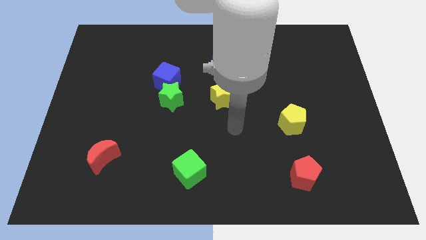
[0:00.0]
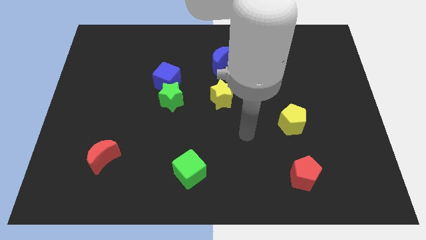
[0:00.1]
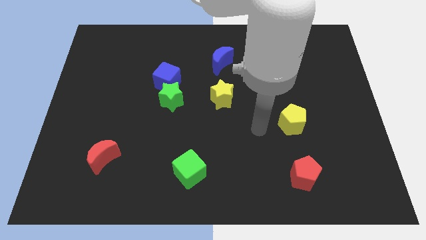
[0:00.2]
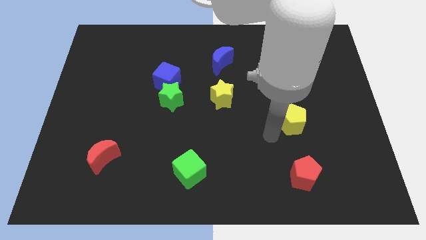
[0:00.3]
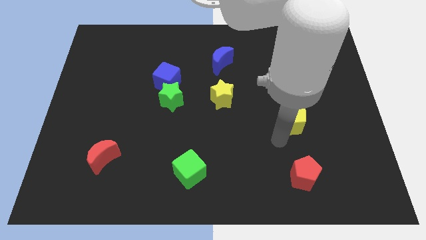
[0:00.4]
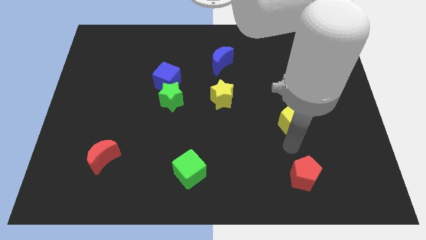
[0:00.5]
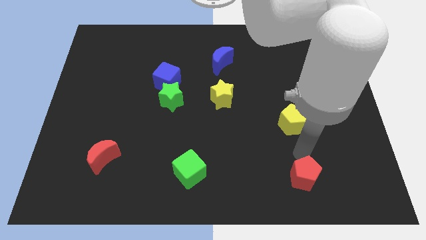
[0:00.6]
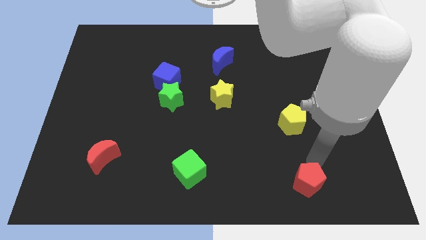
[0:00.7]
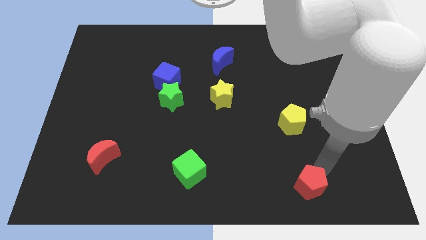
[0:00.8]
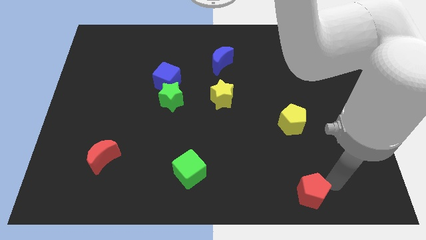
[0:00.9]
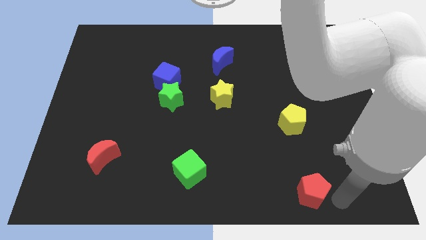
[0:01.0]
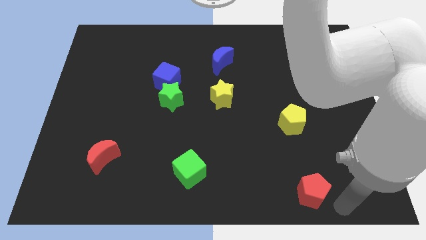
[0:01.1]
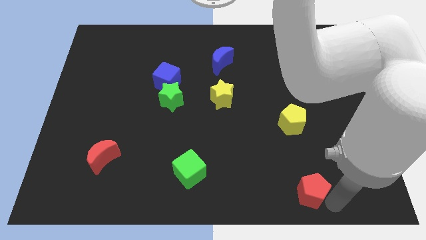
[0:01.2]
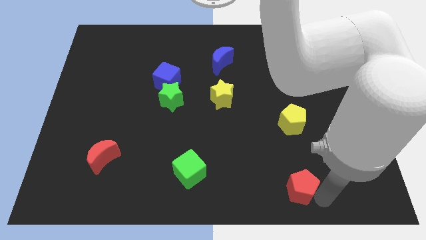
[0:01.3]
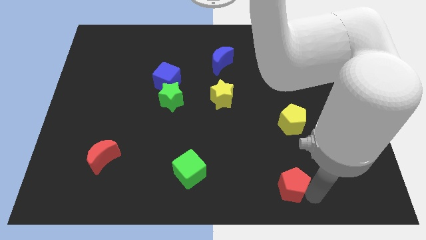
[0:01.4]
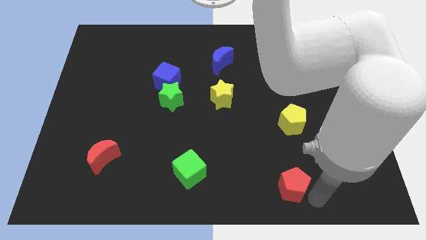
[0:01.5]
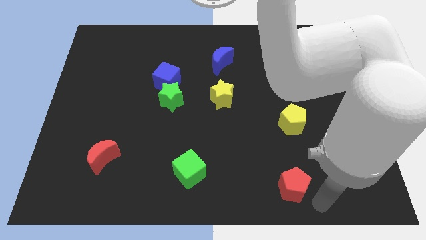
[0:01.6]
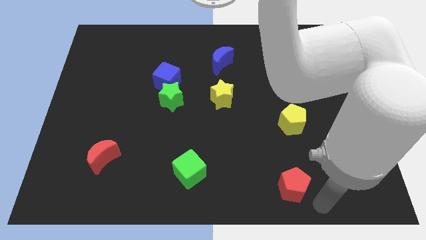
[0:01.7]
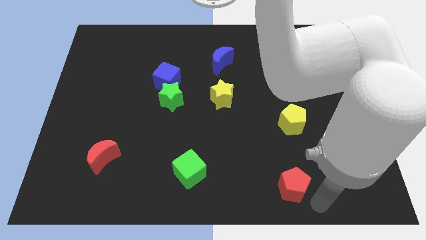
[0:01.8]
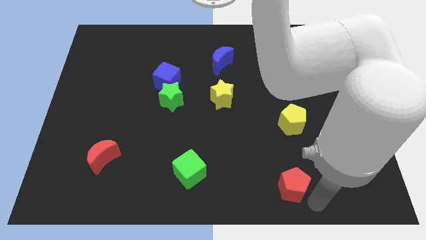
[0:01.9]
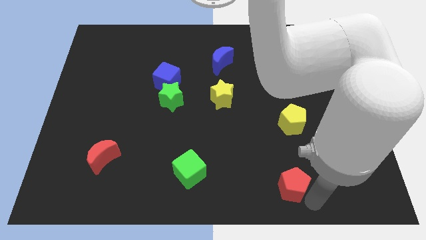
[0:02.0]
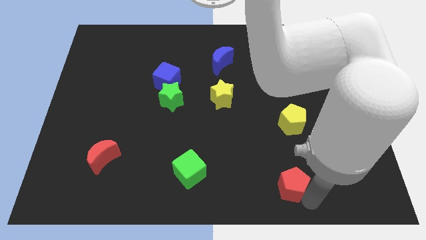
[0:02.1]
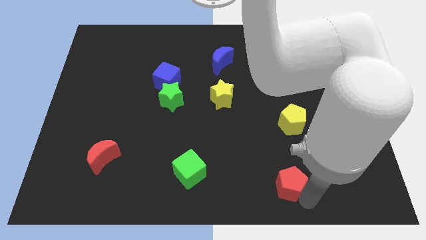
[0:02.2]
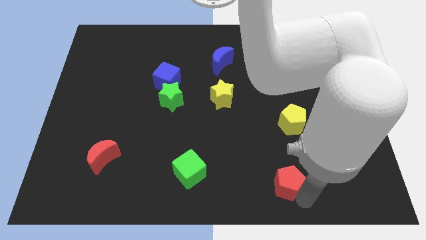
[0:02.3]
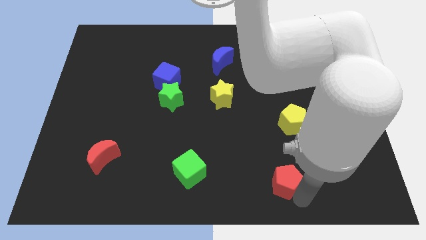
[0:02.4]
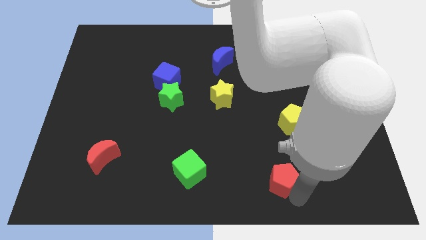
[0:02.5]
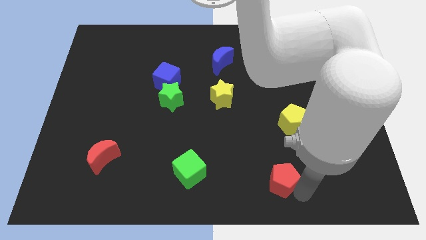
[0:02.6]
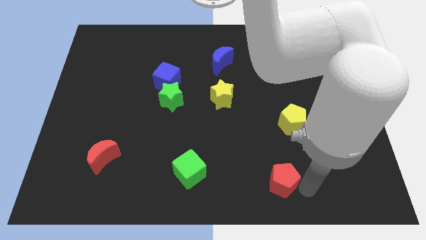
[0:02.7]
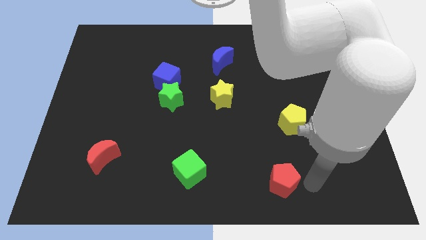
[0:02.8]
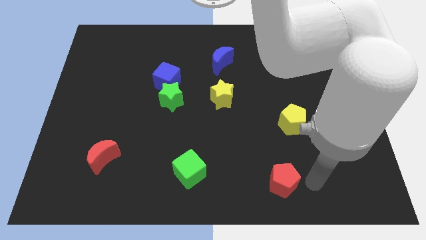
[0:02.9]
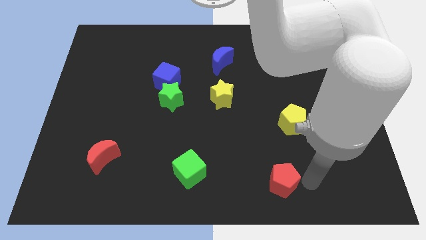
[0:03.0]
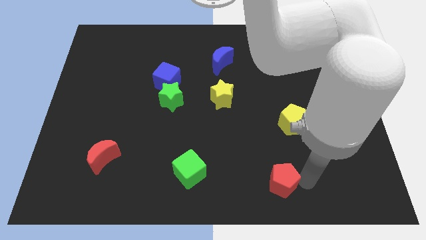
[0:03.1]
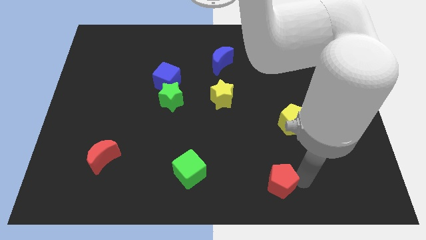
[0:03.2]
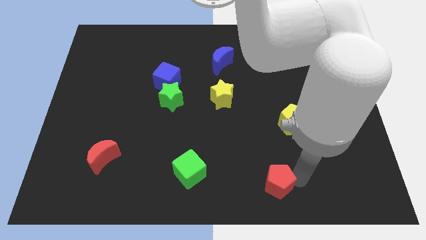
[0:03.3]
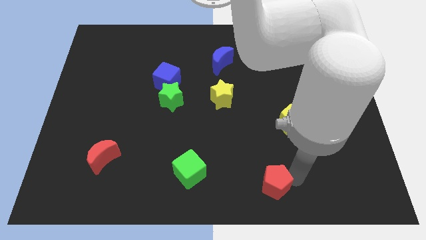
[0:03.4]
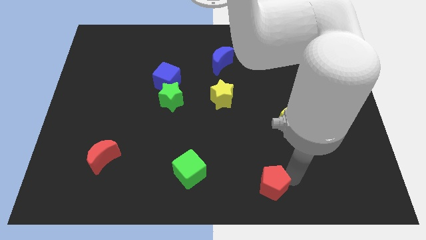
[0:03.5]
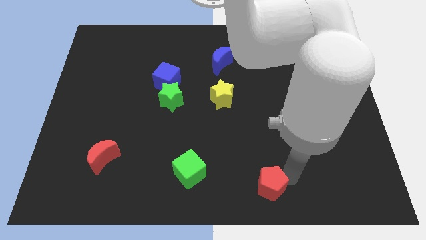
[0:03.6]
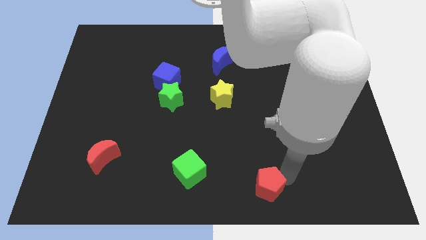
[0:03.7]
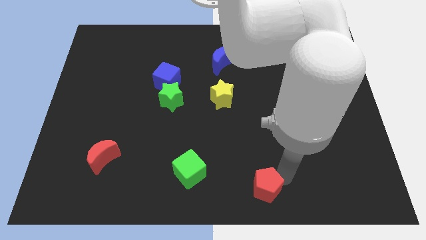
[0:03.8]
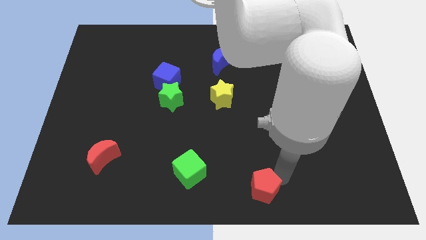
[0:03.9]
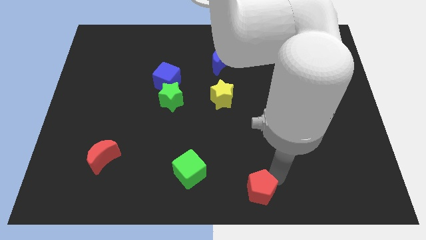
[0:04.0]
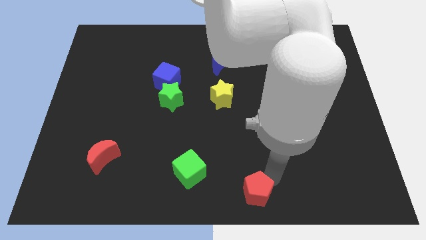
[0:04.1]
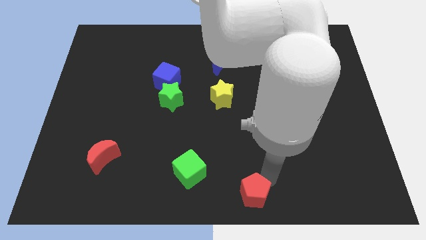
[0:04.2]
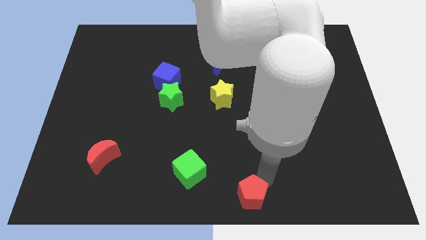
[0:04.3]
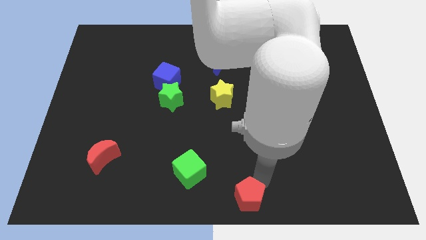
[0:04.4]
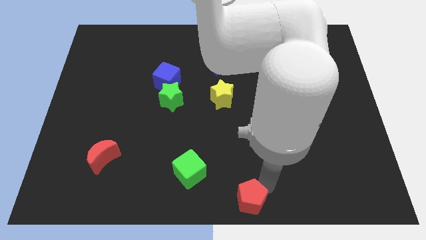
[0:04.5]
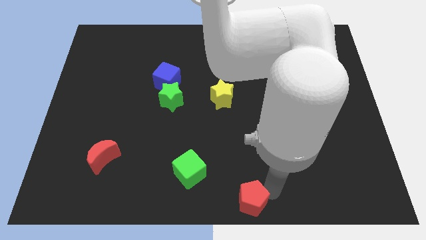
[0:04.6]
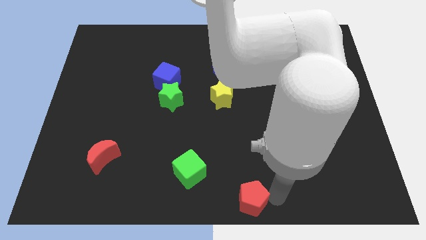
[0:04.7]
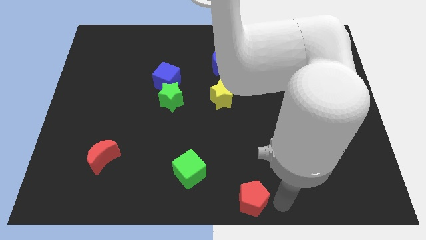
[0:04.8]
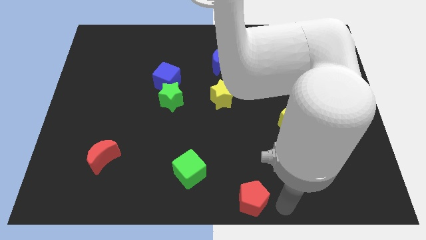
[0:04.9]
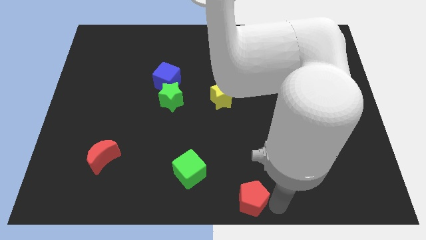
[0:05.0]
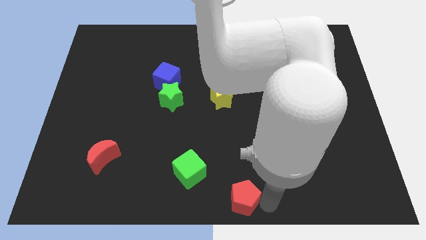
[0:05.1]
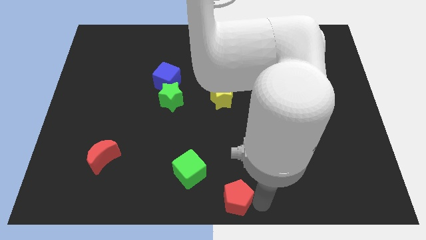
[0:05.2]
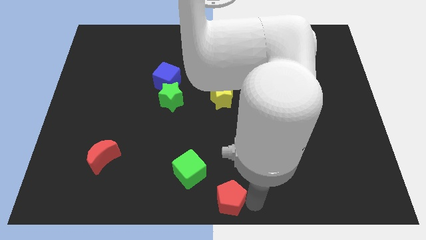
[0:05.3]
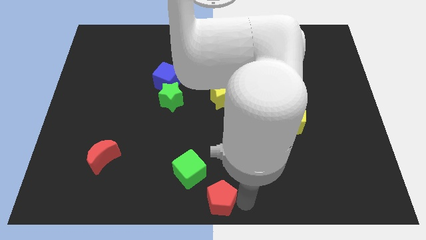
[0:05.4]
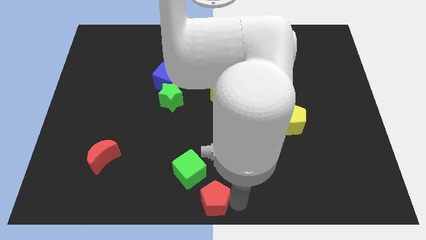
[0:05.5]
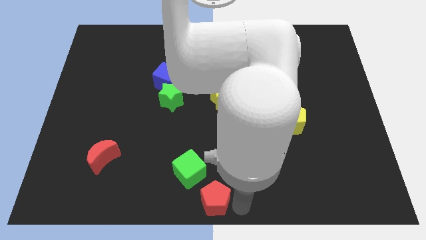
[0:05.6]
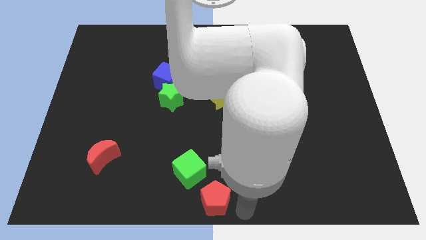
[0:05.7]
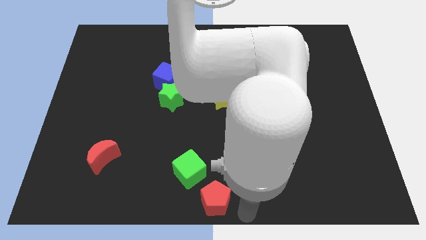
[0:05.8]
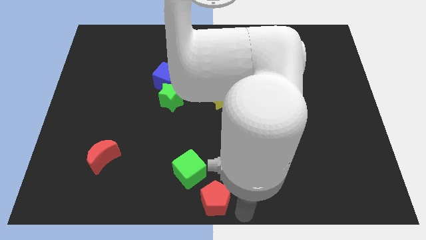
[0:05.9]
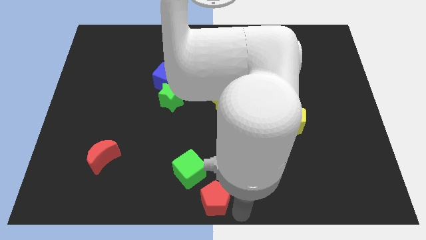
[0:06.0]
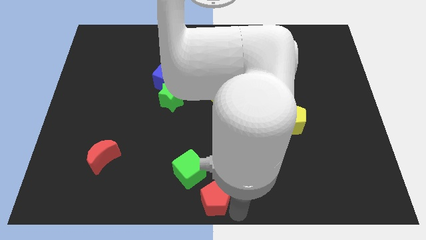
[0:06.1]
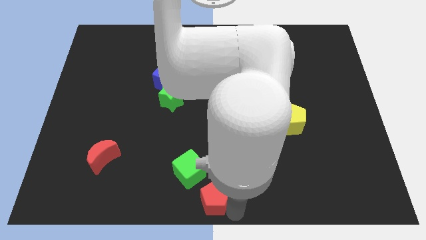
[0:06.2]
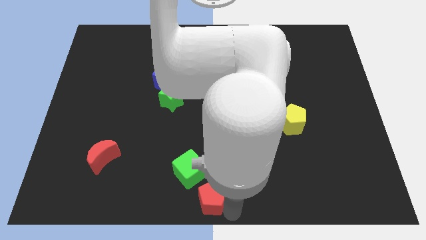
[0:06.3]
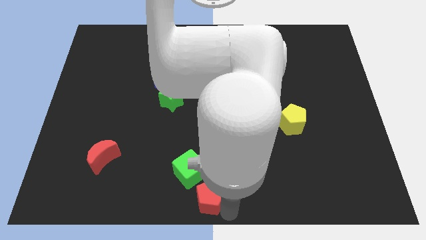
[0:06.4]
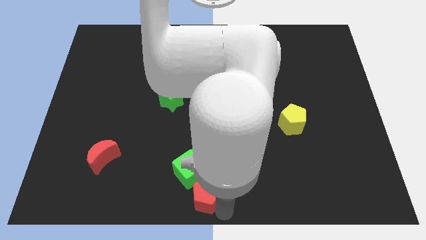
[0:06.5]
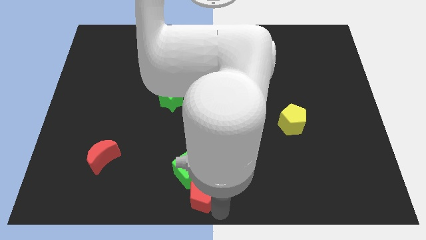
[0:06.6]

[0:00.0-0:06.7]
push the red pentagon to the left

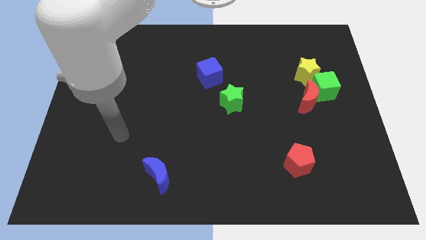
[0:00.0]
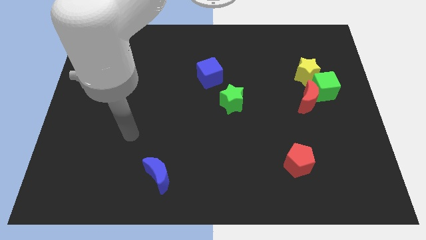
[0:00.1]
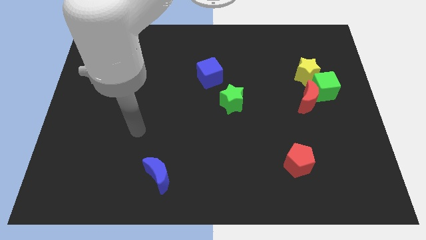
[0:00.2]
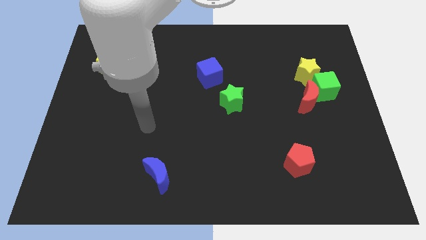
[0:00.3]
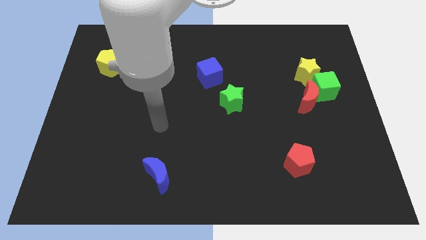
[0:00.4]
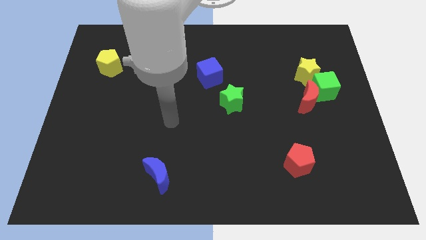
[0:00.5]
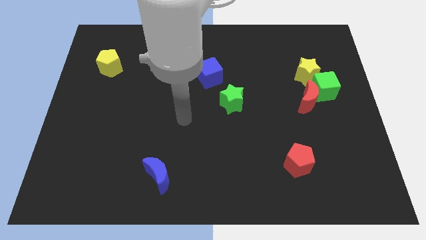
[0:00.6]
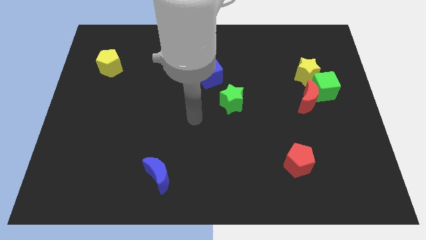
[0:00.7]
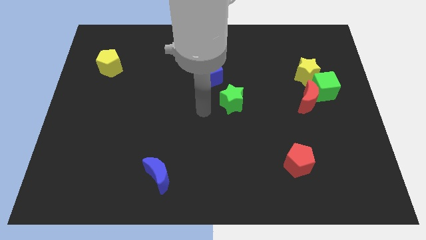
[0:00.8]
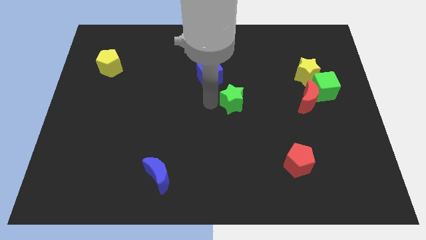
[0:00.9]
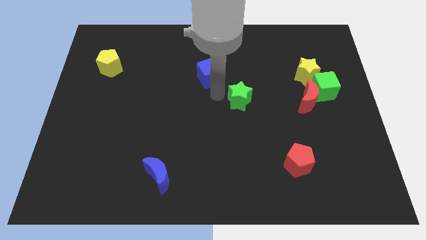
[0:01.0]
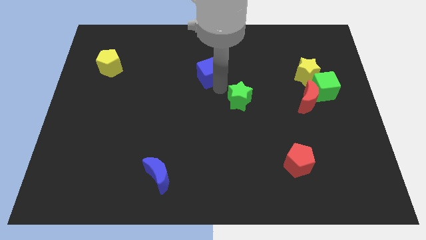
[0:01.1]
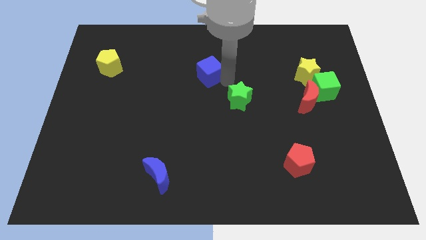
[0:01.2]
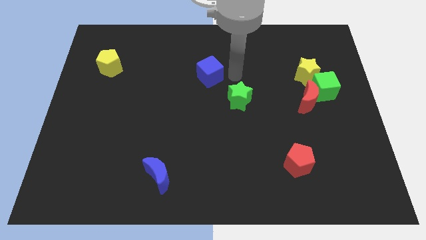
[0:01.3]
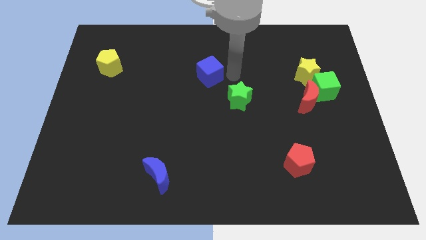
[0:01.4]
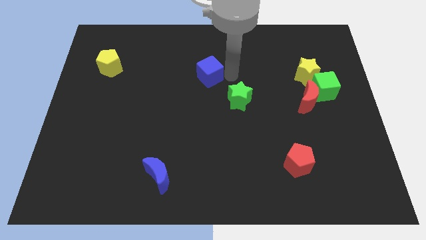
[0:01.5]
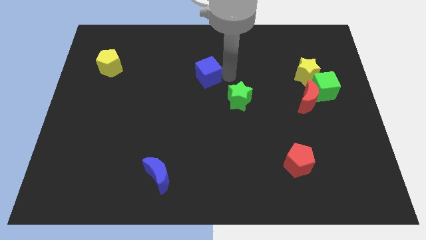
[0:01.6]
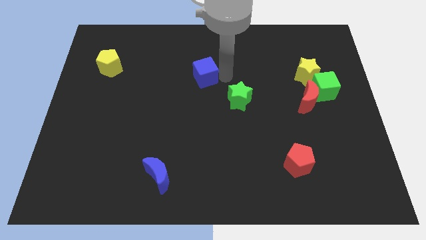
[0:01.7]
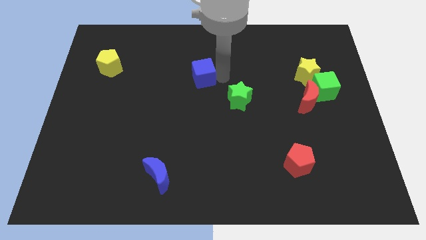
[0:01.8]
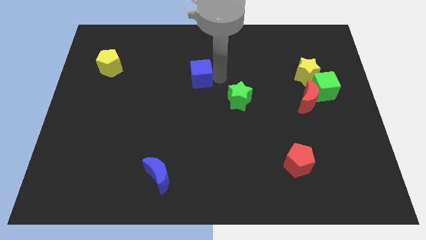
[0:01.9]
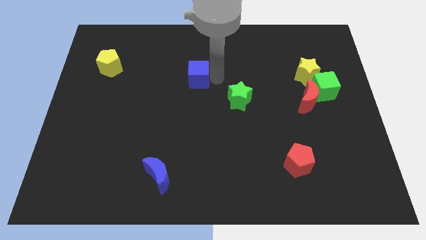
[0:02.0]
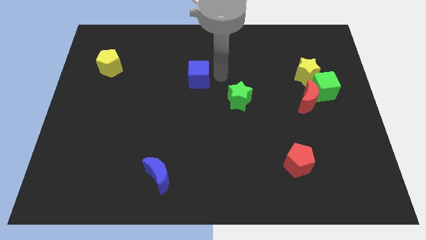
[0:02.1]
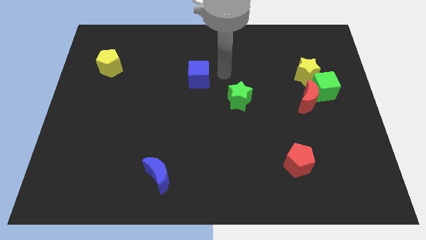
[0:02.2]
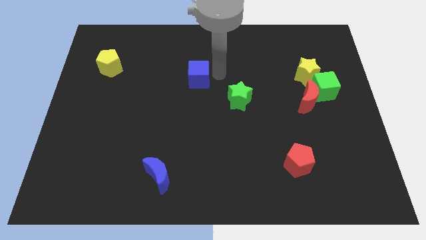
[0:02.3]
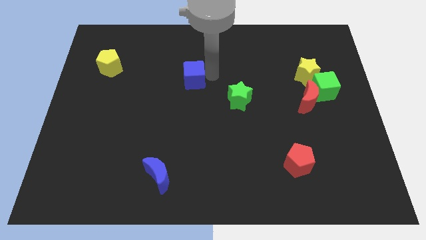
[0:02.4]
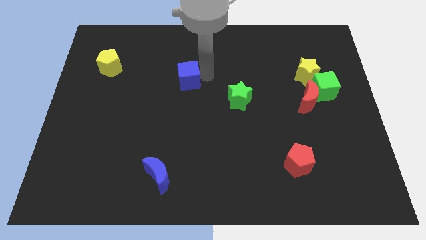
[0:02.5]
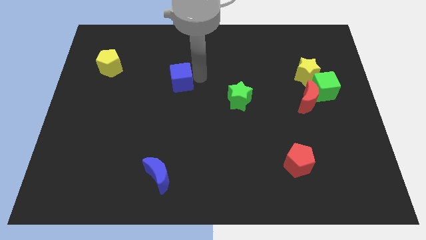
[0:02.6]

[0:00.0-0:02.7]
slightly move the blue cube left
